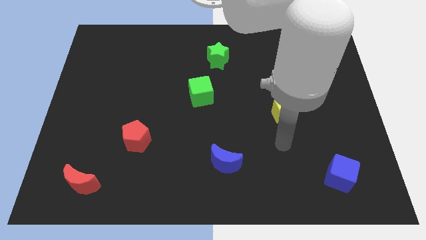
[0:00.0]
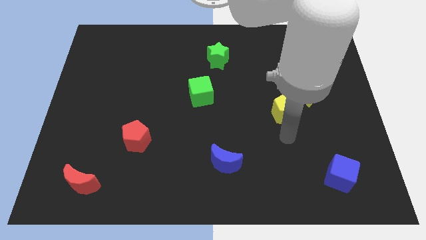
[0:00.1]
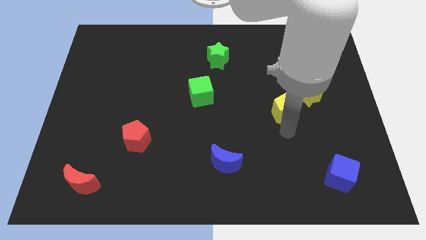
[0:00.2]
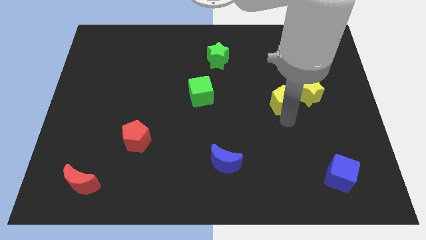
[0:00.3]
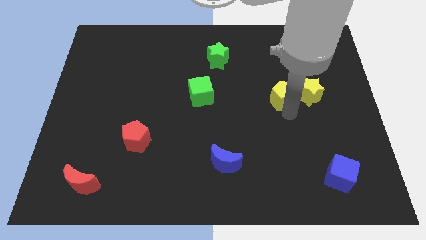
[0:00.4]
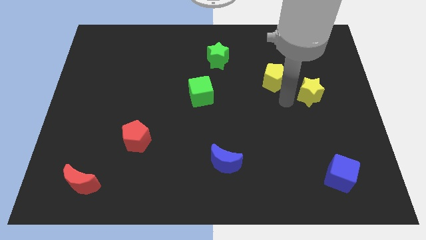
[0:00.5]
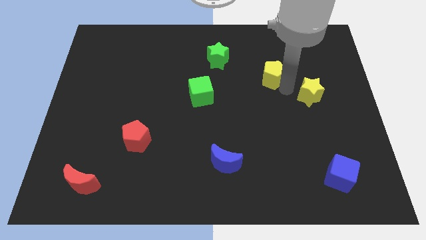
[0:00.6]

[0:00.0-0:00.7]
move the yellow star away from the yellow pentagon

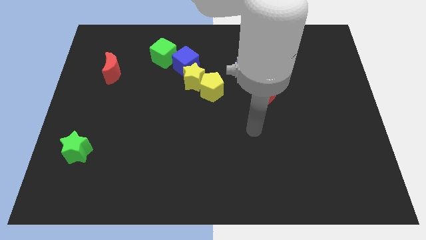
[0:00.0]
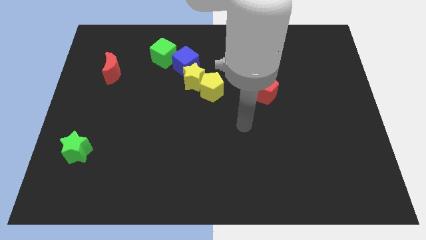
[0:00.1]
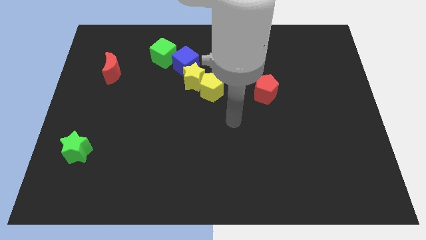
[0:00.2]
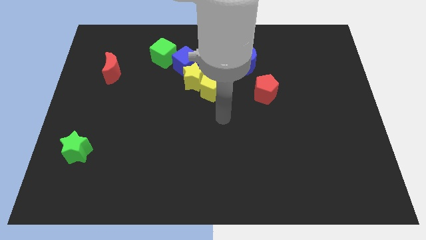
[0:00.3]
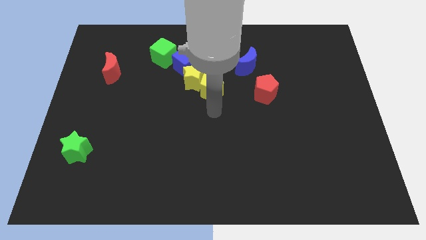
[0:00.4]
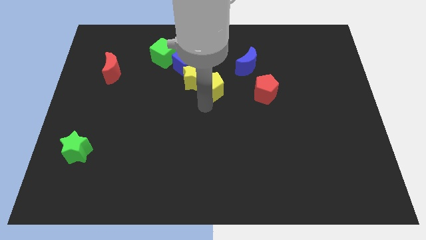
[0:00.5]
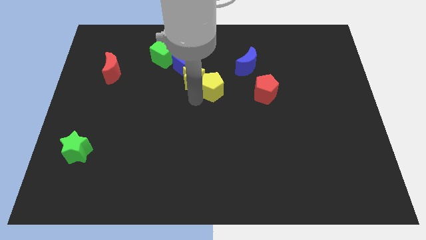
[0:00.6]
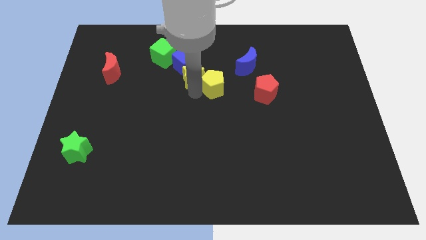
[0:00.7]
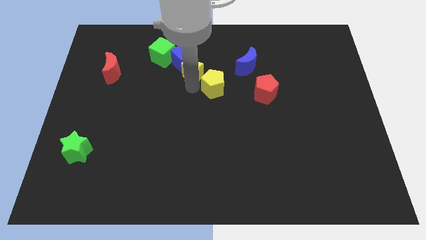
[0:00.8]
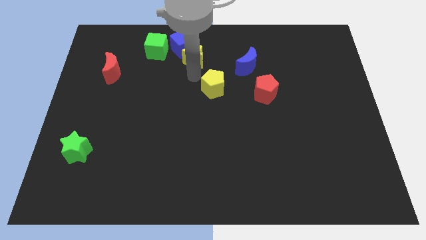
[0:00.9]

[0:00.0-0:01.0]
move the yellow pentagon away from the yellow star

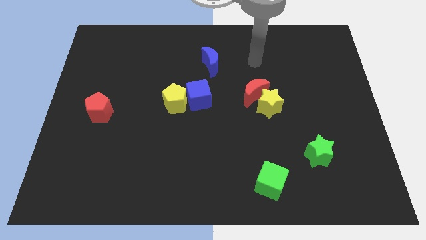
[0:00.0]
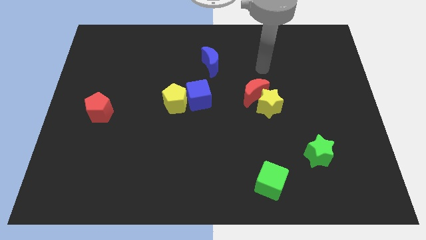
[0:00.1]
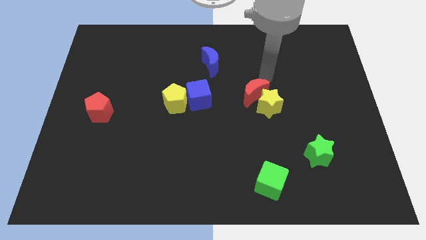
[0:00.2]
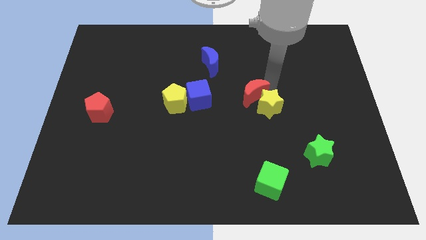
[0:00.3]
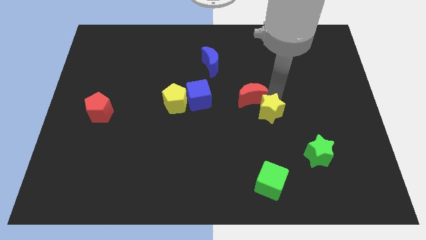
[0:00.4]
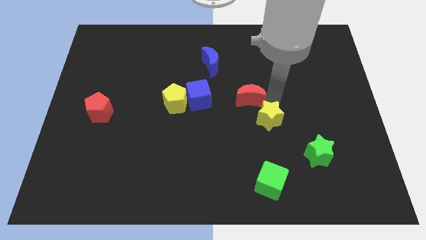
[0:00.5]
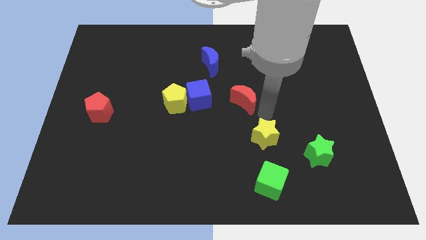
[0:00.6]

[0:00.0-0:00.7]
separate the red moon from the yellow star

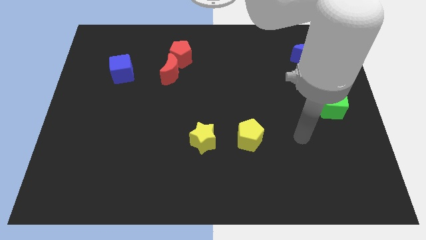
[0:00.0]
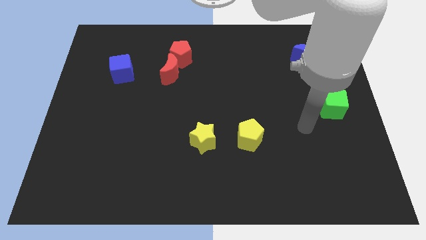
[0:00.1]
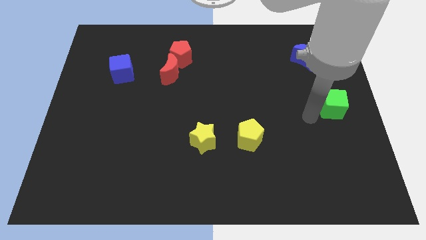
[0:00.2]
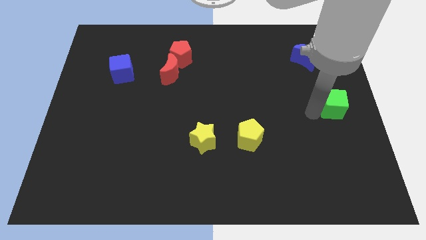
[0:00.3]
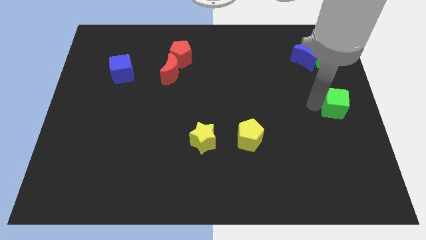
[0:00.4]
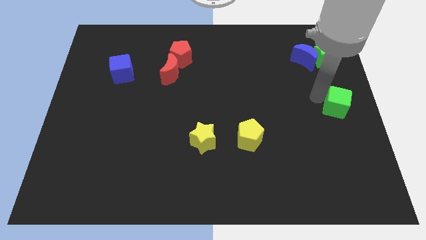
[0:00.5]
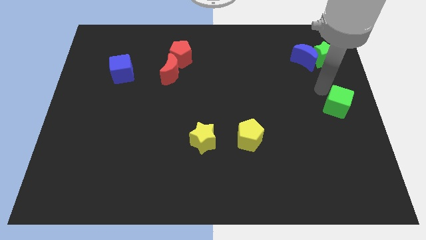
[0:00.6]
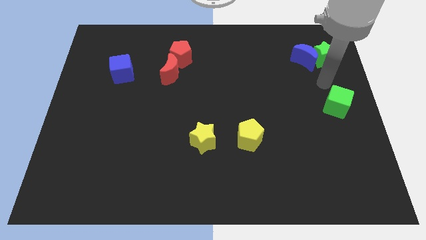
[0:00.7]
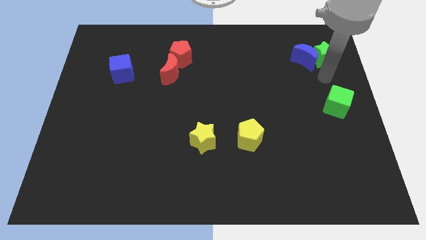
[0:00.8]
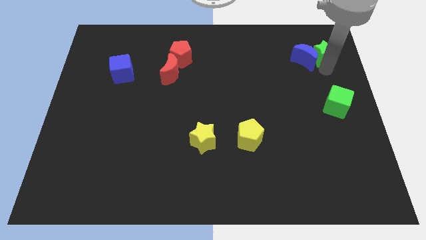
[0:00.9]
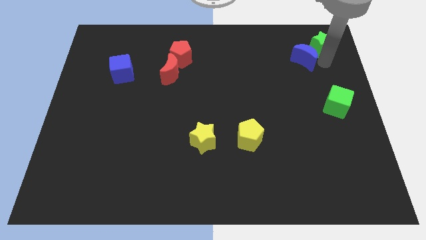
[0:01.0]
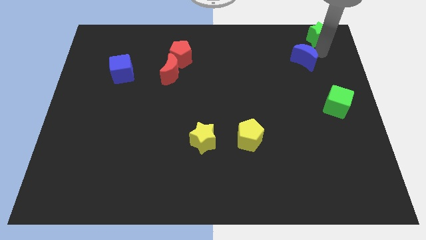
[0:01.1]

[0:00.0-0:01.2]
separate the blue moon from the green star

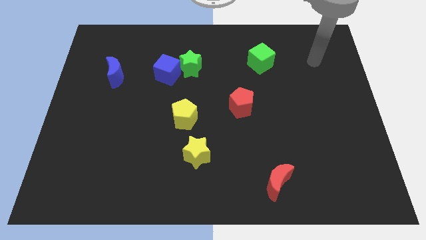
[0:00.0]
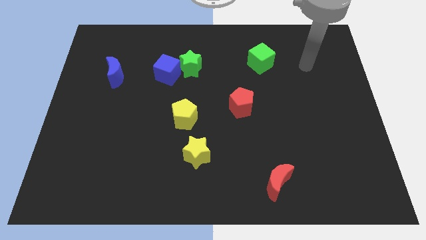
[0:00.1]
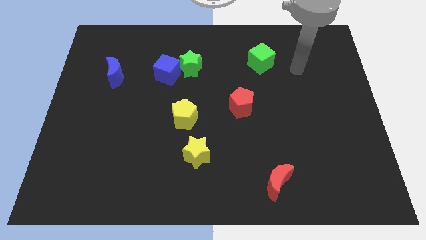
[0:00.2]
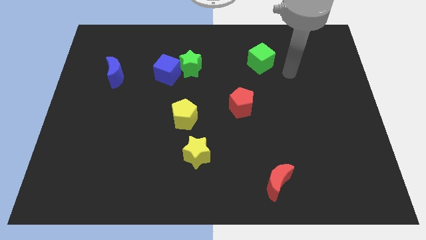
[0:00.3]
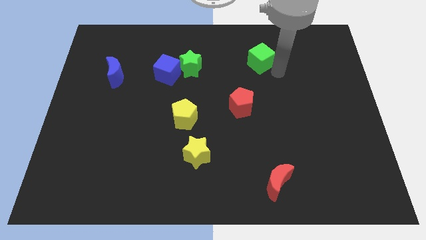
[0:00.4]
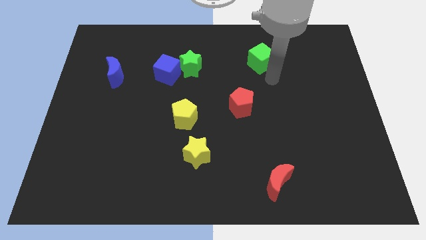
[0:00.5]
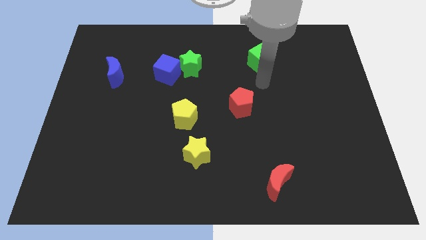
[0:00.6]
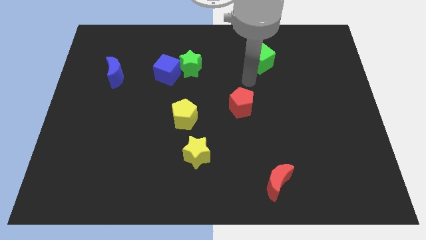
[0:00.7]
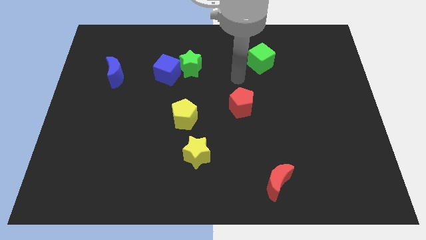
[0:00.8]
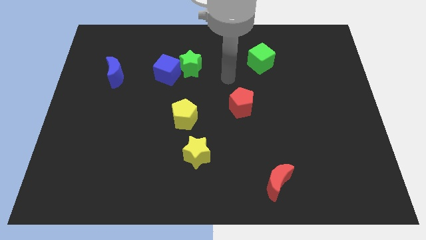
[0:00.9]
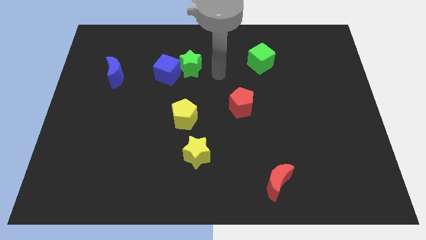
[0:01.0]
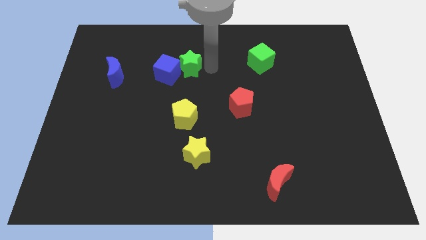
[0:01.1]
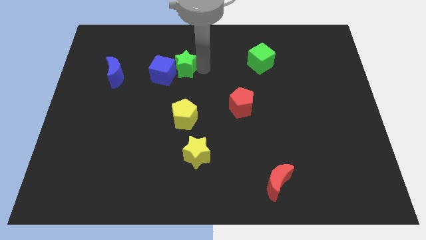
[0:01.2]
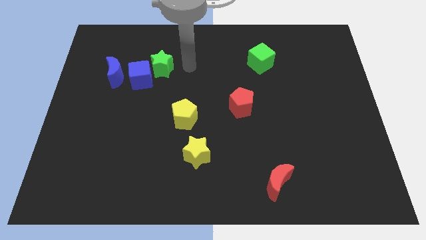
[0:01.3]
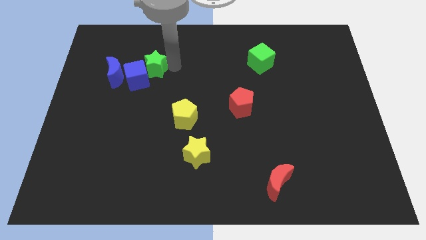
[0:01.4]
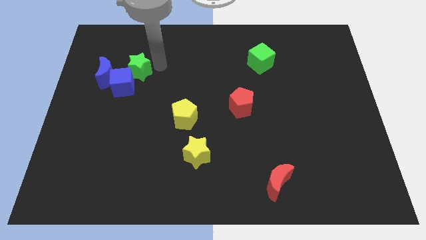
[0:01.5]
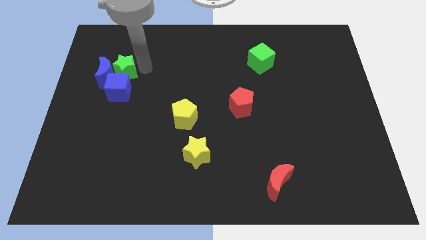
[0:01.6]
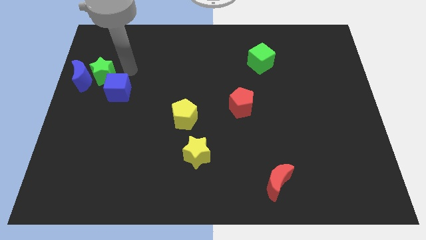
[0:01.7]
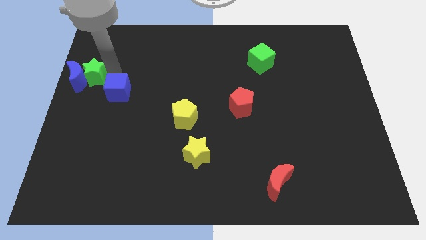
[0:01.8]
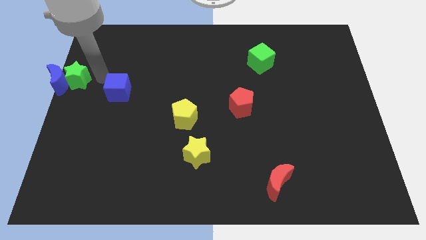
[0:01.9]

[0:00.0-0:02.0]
pull the blue cube apart from the green star

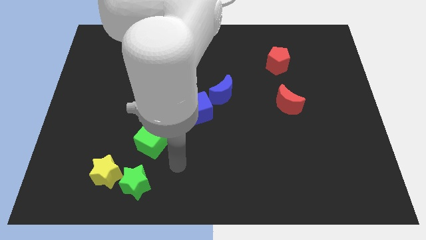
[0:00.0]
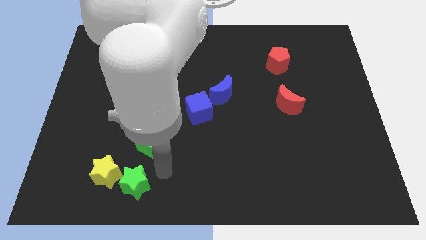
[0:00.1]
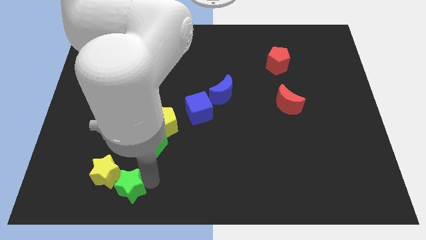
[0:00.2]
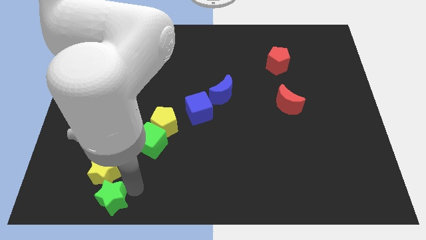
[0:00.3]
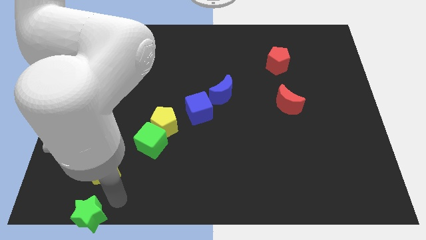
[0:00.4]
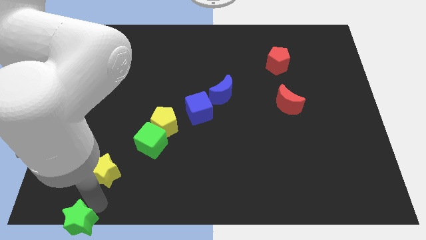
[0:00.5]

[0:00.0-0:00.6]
move the yellow star away from the green star

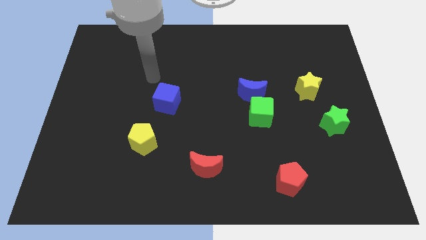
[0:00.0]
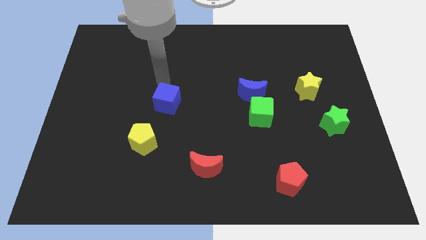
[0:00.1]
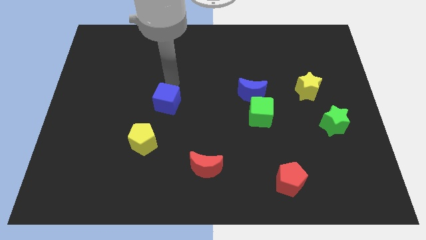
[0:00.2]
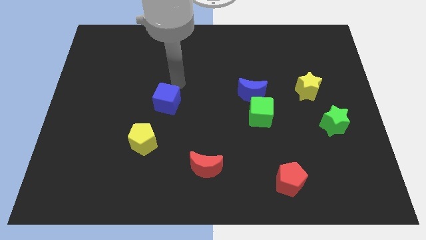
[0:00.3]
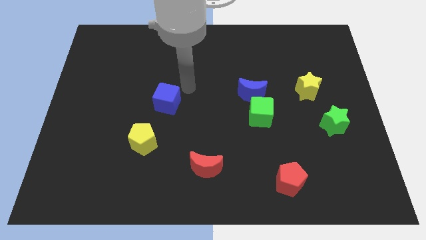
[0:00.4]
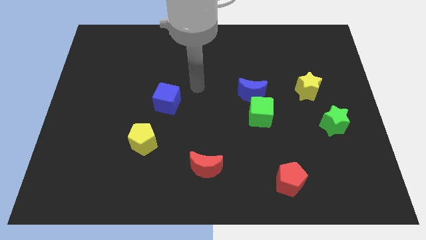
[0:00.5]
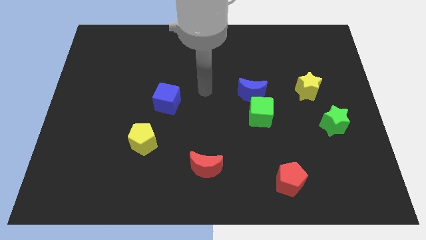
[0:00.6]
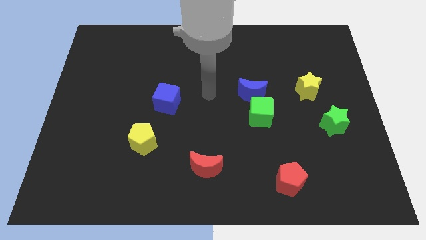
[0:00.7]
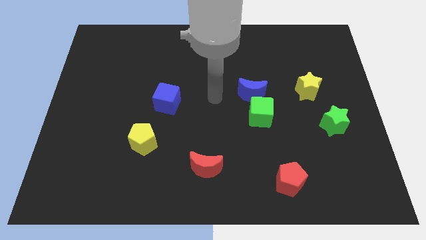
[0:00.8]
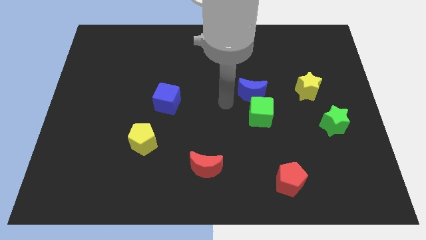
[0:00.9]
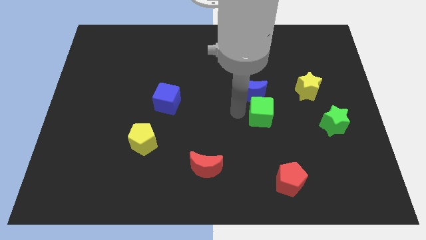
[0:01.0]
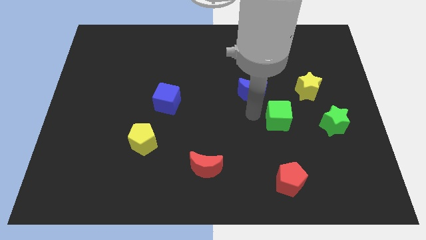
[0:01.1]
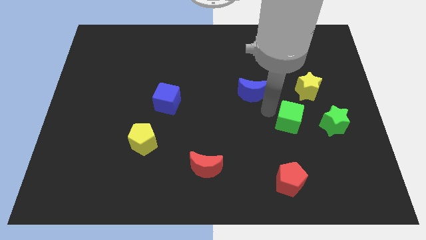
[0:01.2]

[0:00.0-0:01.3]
move the blue moon away from the green cube

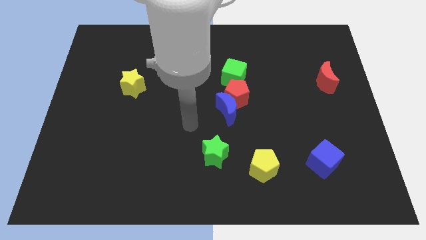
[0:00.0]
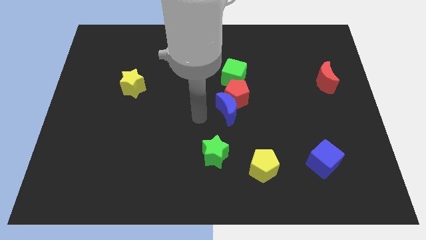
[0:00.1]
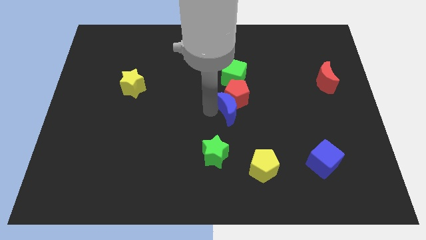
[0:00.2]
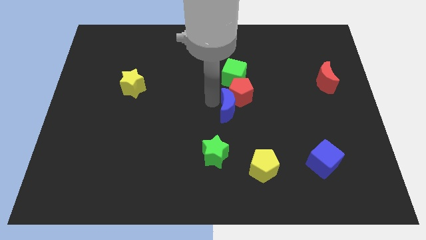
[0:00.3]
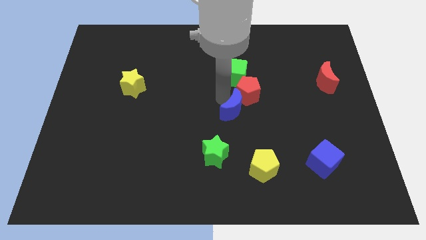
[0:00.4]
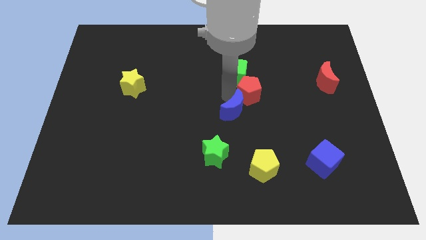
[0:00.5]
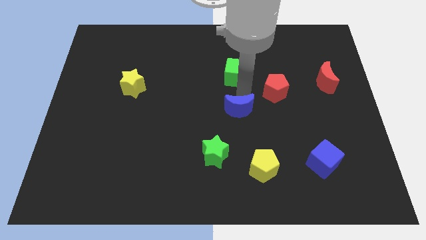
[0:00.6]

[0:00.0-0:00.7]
move the blue moon away from the red pentagon

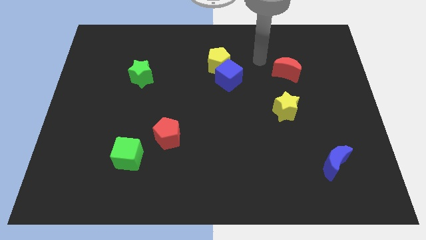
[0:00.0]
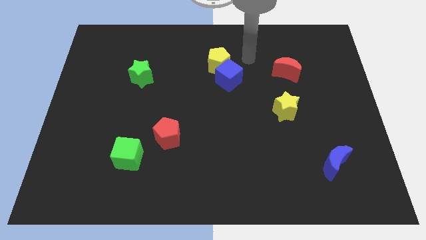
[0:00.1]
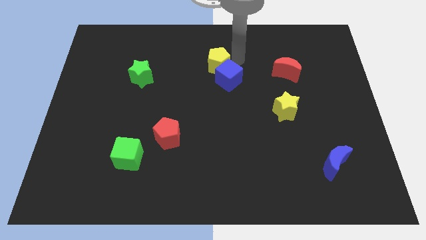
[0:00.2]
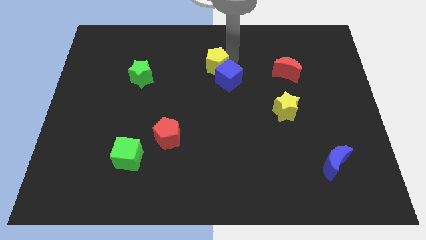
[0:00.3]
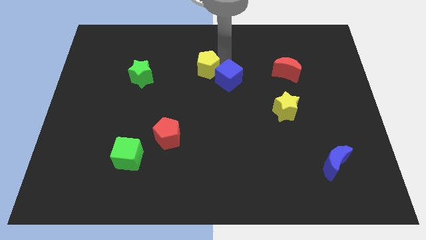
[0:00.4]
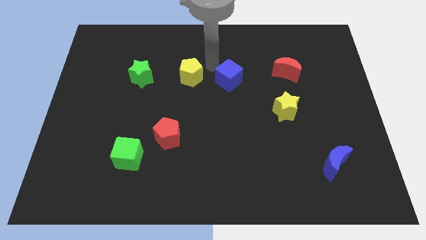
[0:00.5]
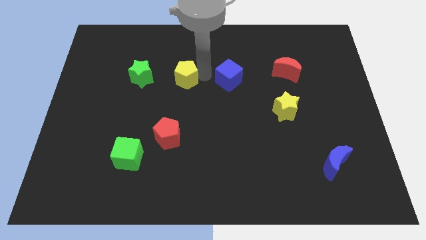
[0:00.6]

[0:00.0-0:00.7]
move the blue cube away from the yellow pentagon

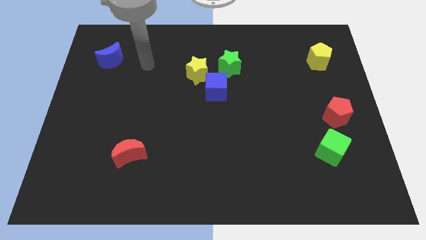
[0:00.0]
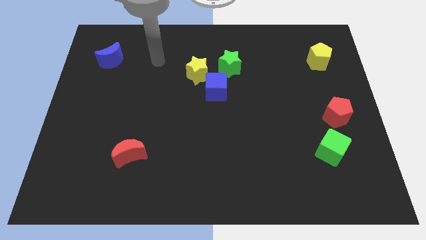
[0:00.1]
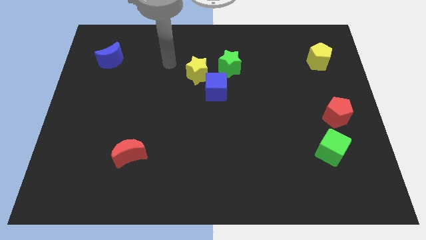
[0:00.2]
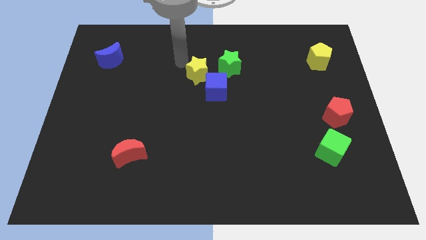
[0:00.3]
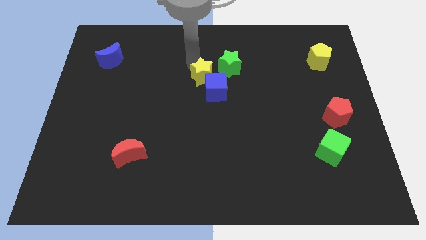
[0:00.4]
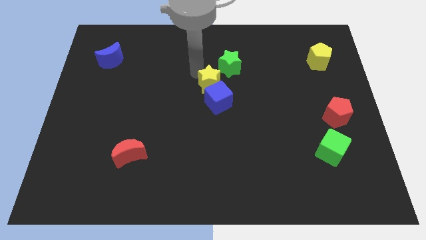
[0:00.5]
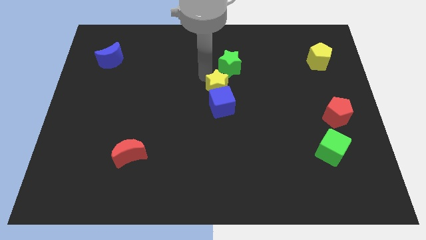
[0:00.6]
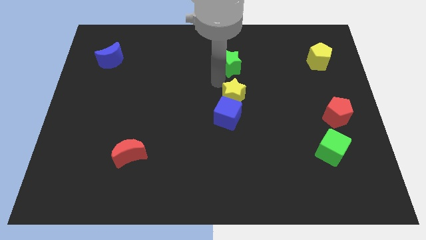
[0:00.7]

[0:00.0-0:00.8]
pull the blue cube apart from the yellow star and green star
